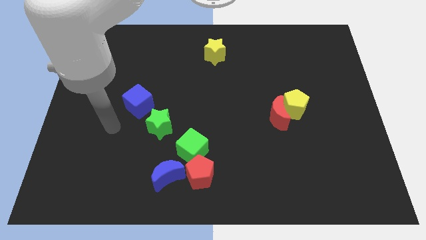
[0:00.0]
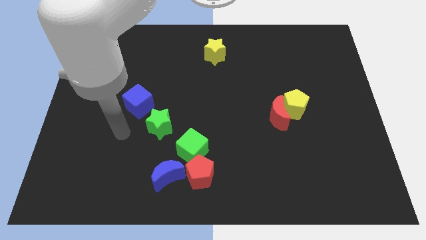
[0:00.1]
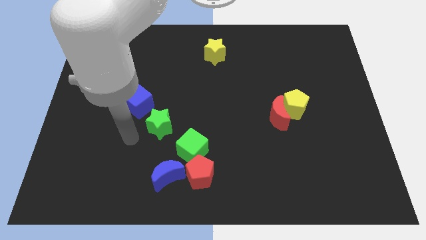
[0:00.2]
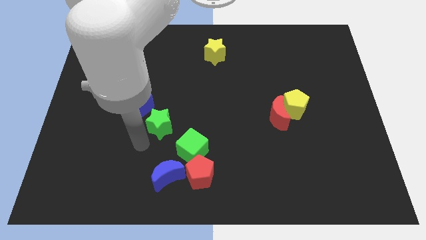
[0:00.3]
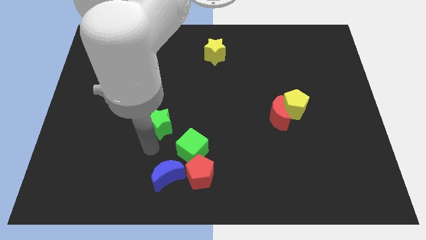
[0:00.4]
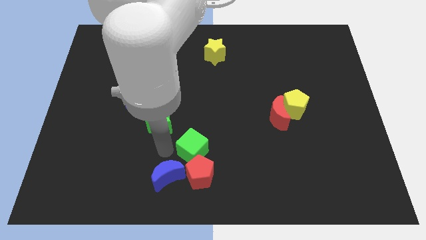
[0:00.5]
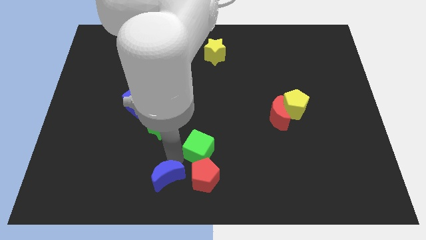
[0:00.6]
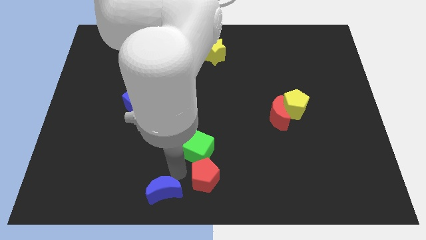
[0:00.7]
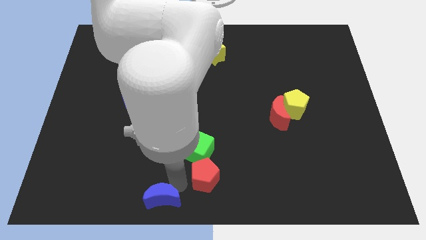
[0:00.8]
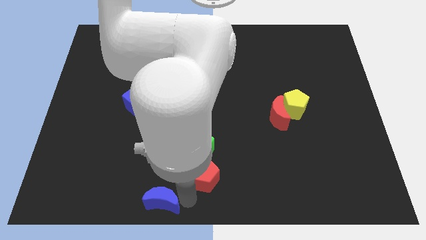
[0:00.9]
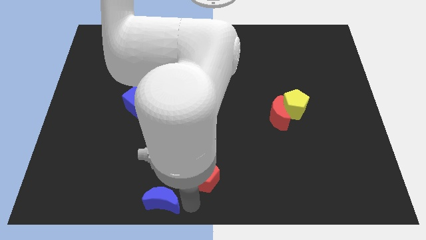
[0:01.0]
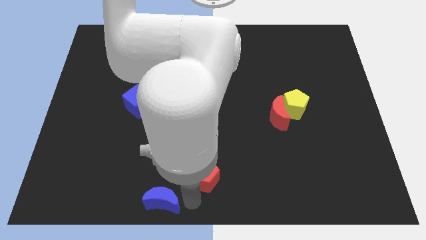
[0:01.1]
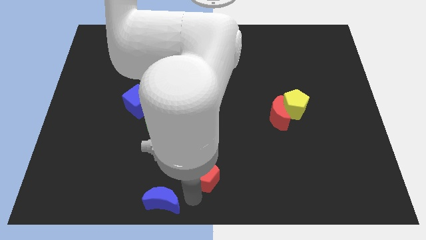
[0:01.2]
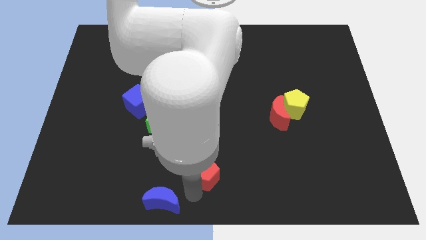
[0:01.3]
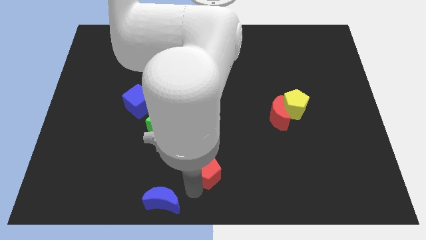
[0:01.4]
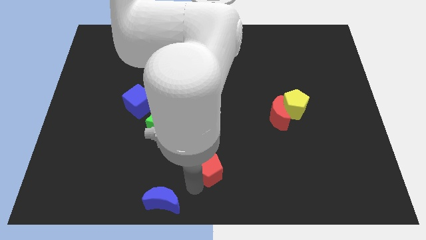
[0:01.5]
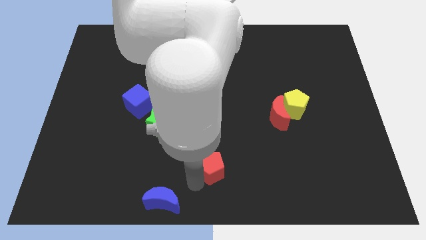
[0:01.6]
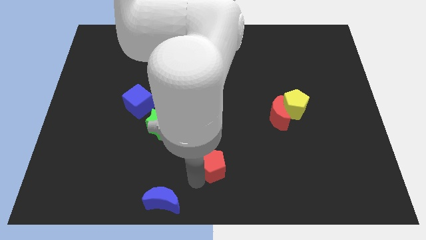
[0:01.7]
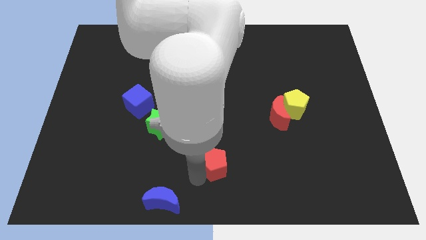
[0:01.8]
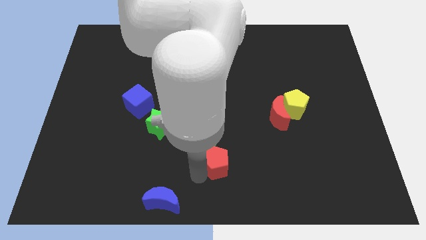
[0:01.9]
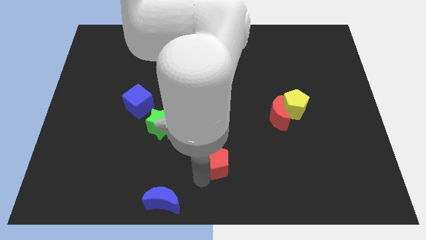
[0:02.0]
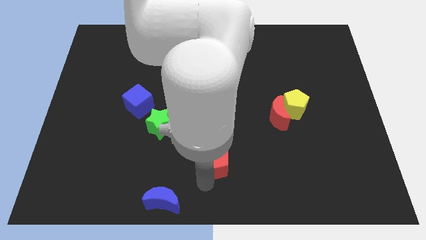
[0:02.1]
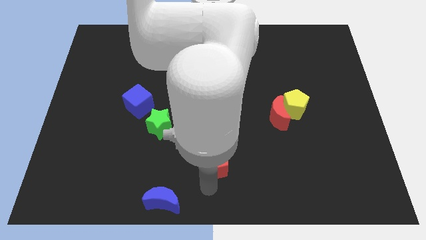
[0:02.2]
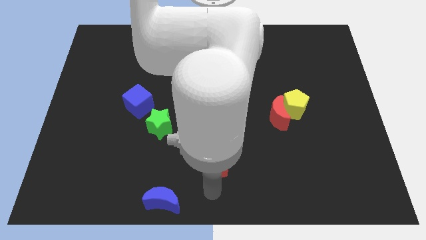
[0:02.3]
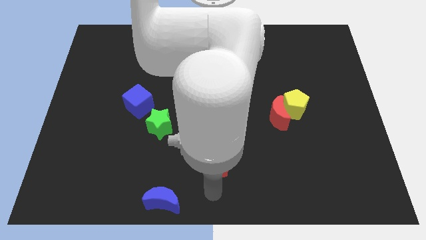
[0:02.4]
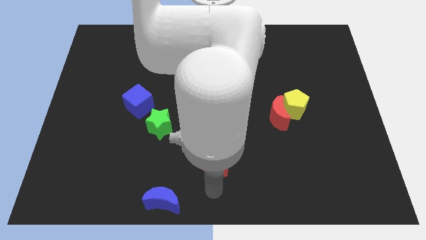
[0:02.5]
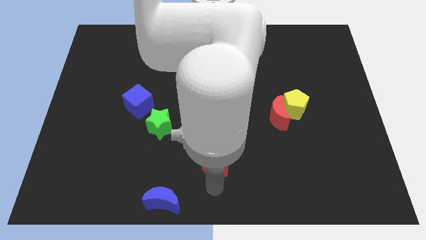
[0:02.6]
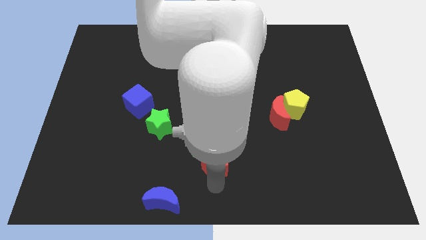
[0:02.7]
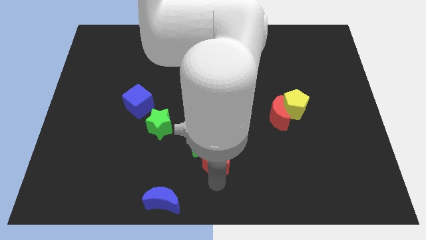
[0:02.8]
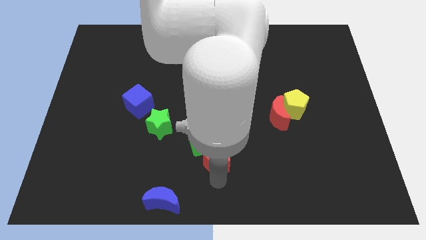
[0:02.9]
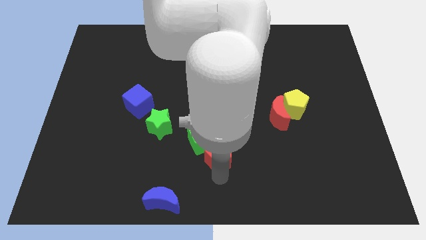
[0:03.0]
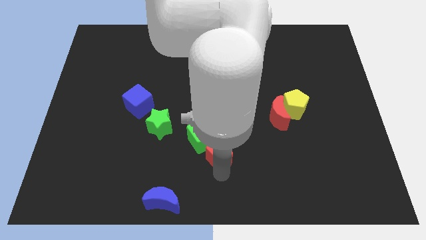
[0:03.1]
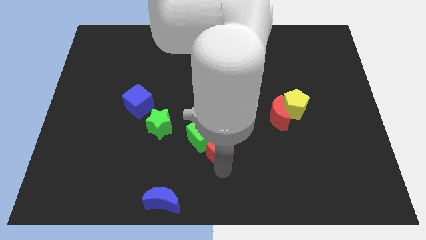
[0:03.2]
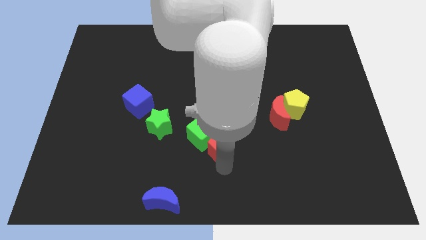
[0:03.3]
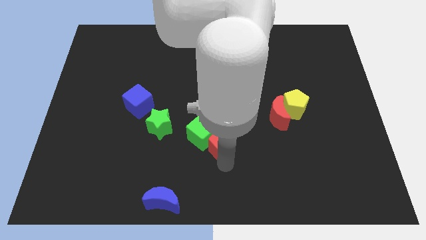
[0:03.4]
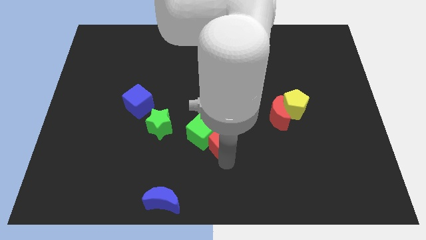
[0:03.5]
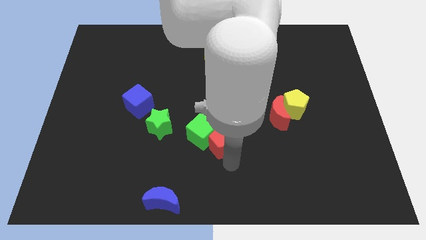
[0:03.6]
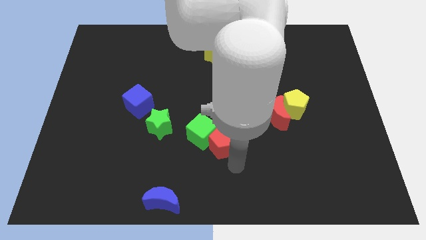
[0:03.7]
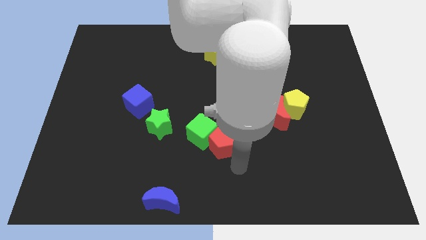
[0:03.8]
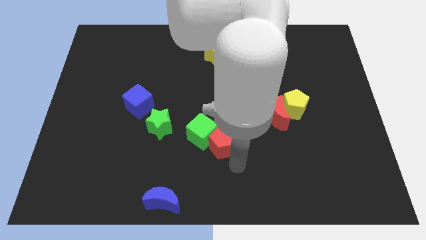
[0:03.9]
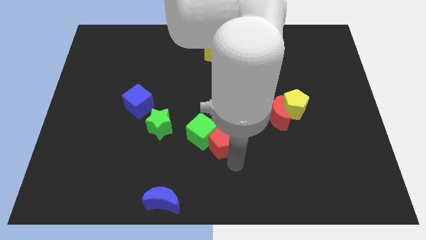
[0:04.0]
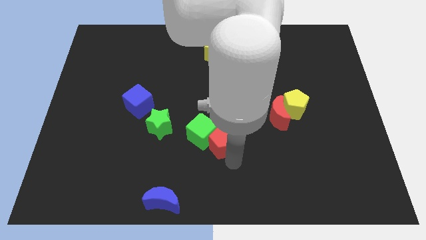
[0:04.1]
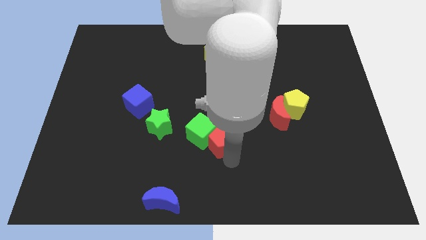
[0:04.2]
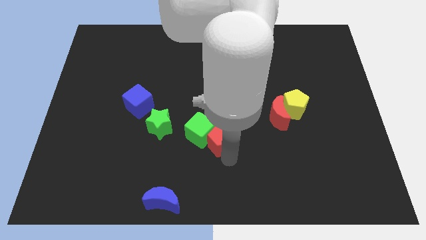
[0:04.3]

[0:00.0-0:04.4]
push the red pentagon slightly up

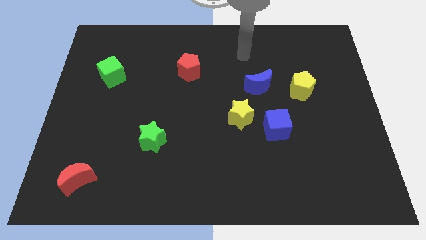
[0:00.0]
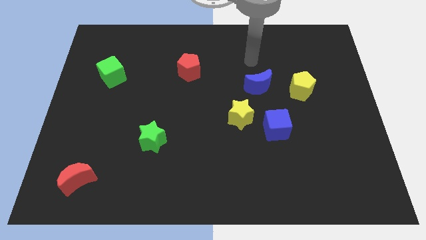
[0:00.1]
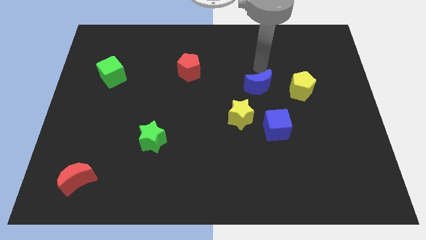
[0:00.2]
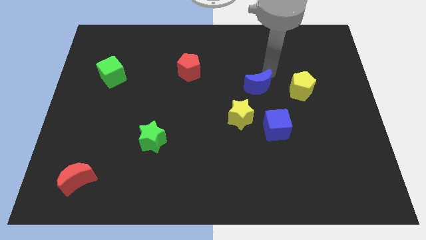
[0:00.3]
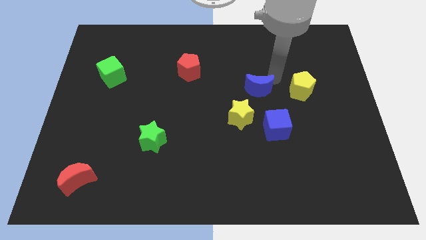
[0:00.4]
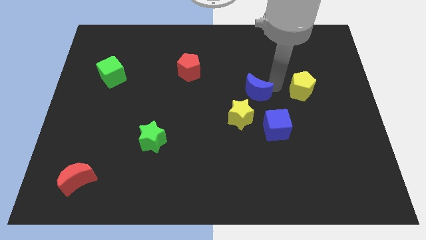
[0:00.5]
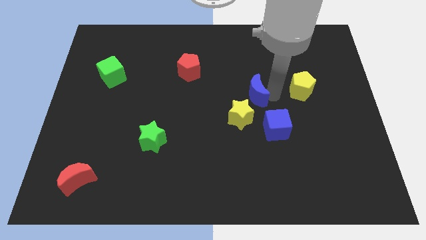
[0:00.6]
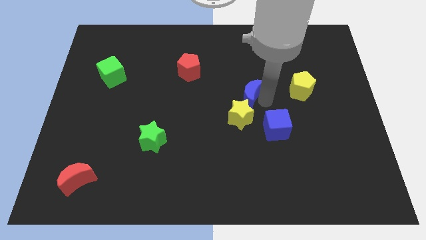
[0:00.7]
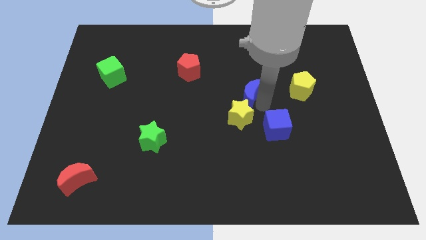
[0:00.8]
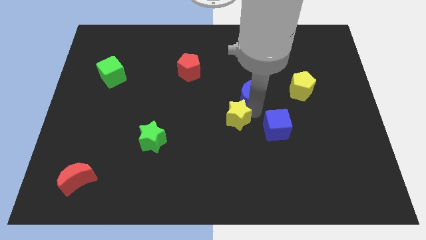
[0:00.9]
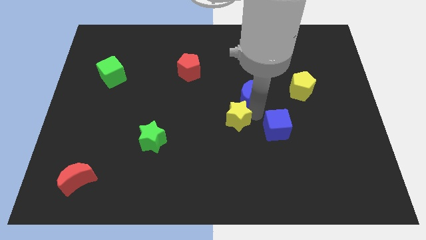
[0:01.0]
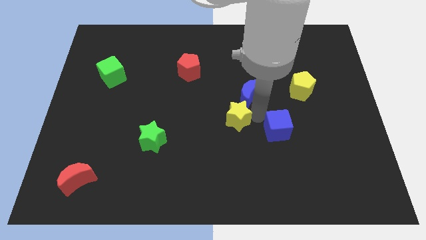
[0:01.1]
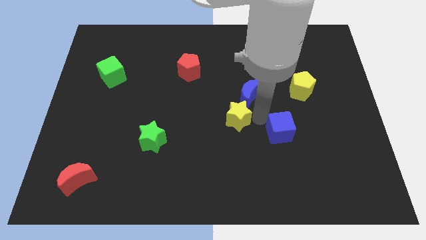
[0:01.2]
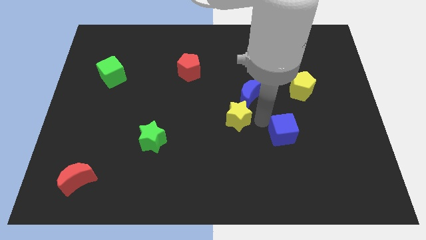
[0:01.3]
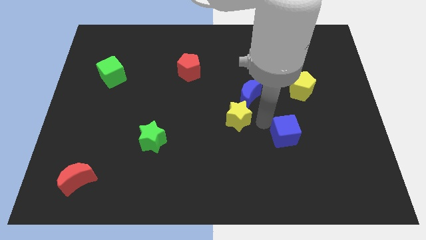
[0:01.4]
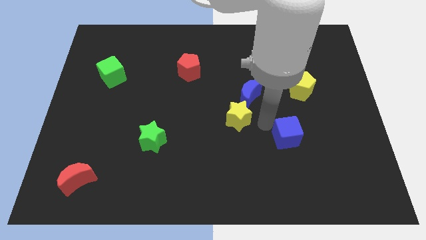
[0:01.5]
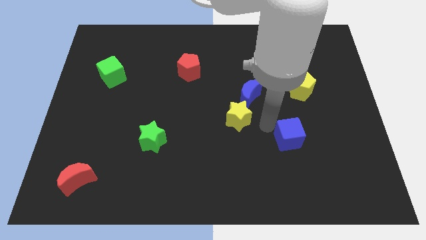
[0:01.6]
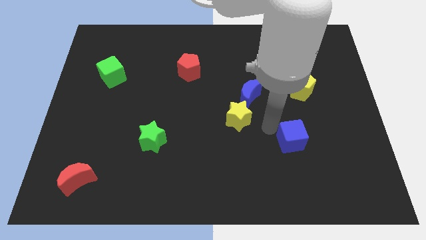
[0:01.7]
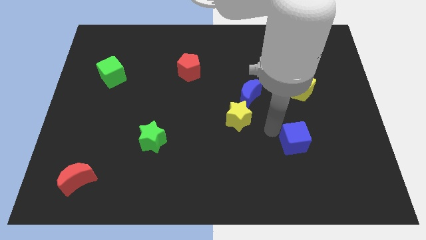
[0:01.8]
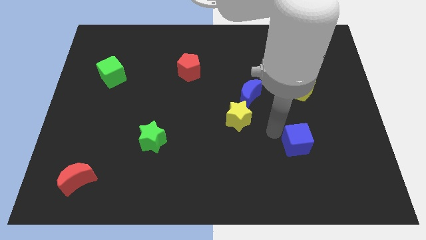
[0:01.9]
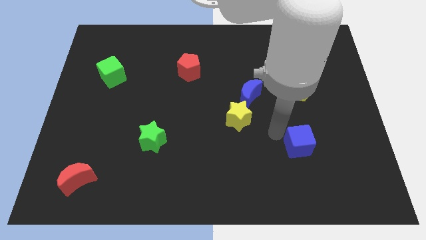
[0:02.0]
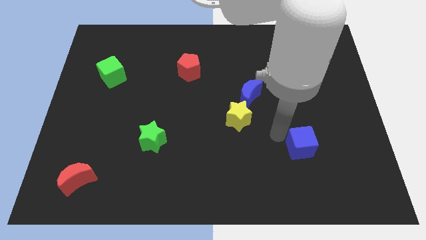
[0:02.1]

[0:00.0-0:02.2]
slightly move the blue cube down and to the right diagonally

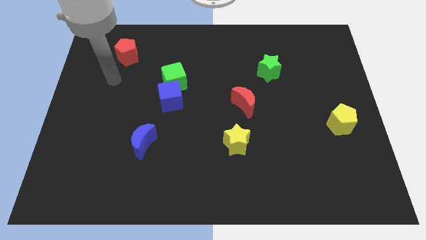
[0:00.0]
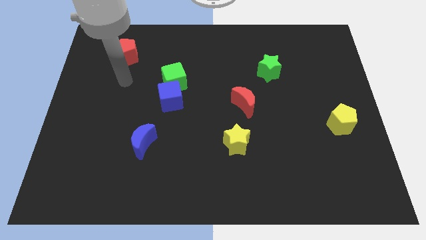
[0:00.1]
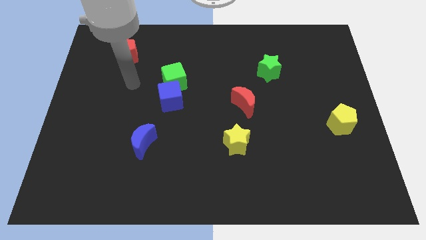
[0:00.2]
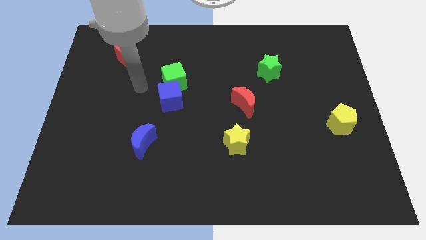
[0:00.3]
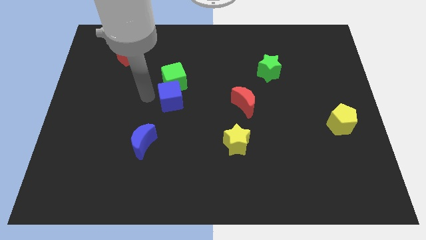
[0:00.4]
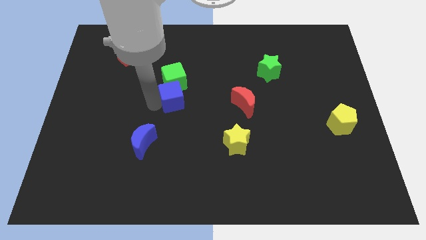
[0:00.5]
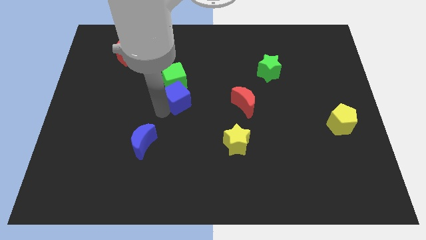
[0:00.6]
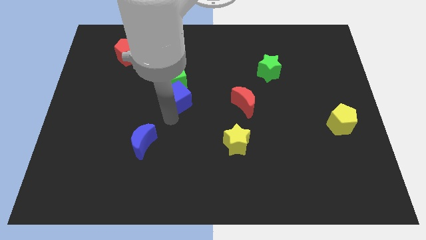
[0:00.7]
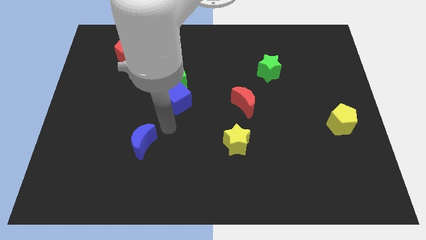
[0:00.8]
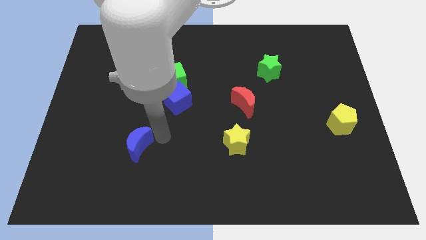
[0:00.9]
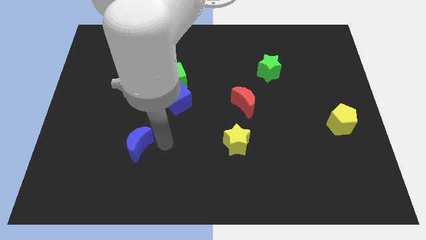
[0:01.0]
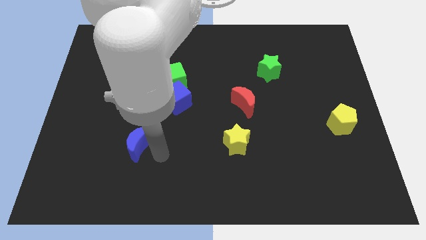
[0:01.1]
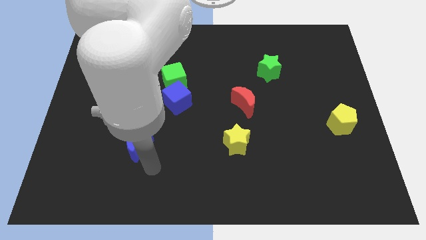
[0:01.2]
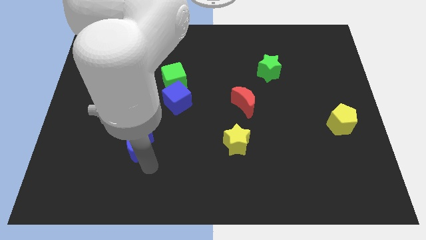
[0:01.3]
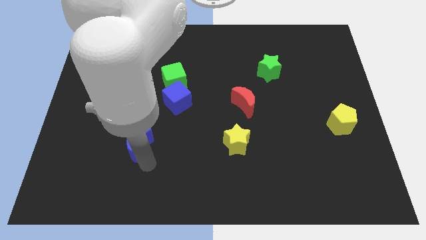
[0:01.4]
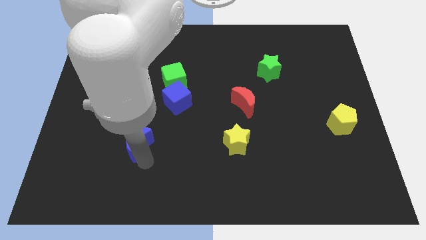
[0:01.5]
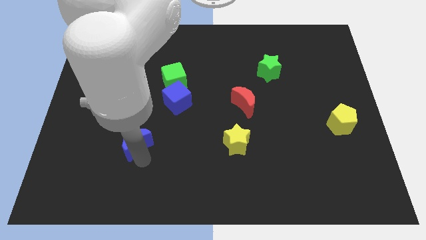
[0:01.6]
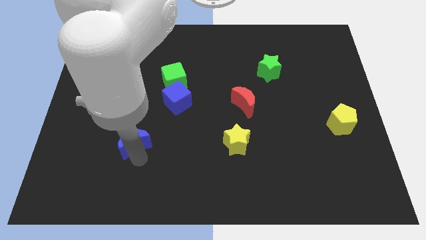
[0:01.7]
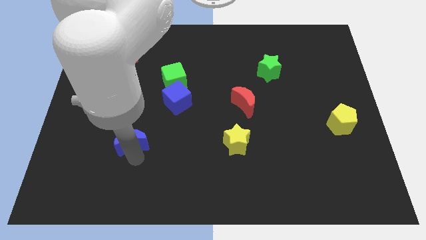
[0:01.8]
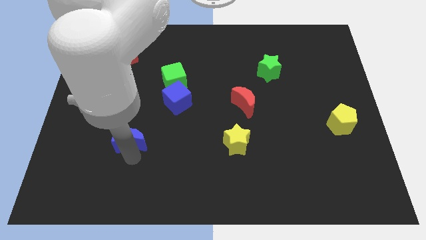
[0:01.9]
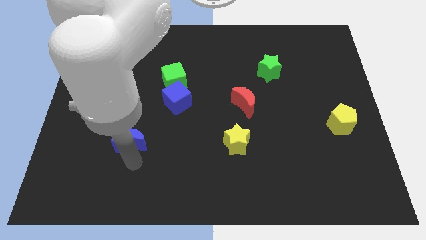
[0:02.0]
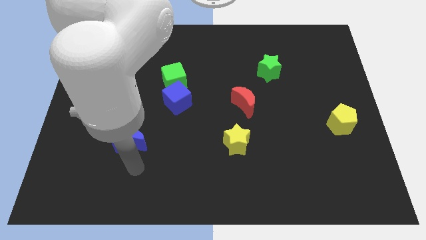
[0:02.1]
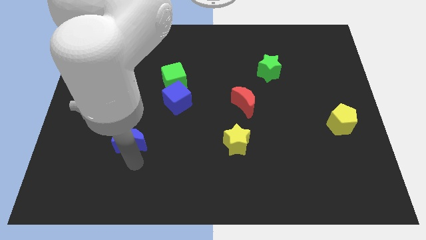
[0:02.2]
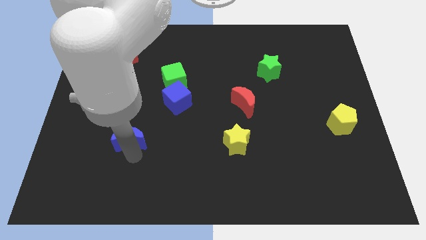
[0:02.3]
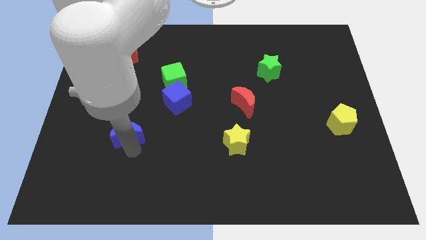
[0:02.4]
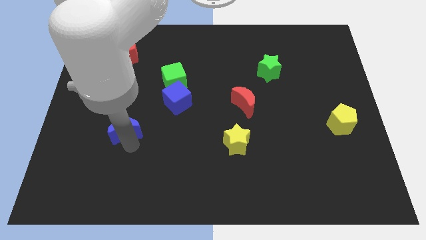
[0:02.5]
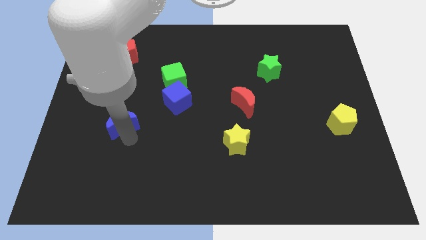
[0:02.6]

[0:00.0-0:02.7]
move the blue moon up and left diagonally somewhat
